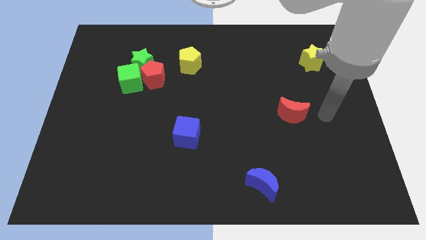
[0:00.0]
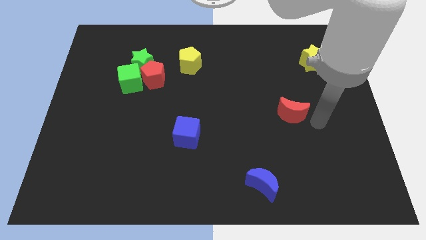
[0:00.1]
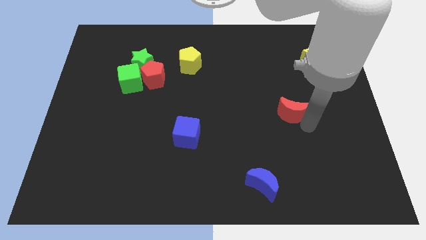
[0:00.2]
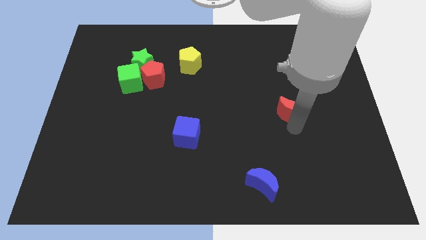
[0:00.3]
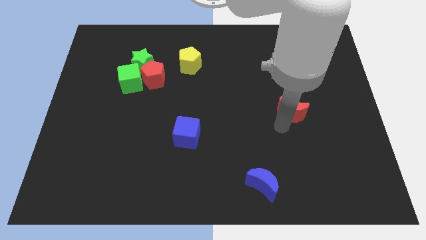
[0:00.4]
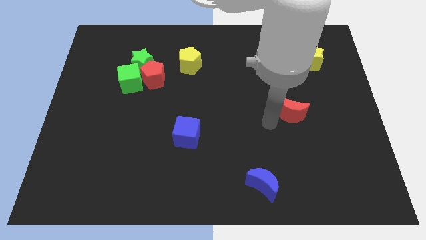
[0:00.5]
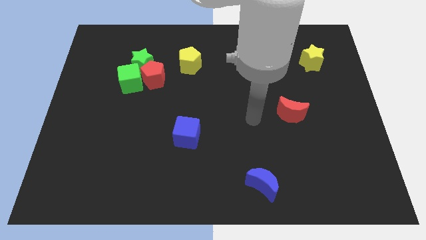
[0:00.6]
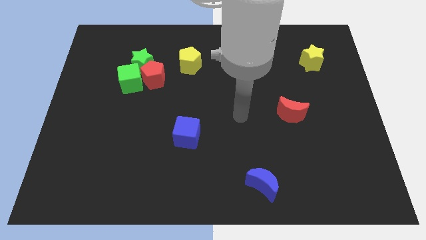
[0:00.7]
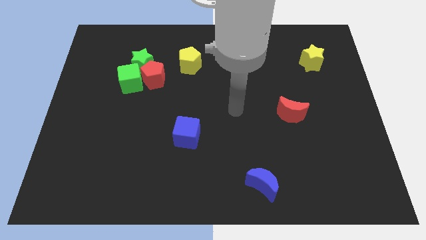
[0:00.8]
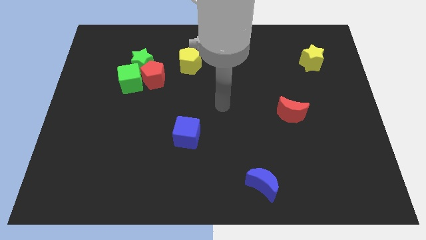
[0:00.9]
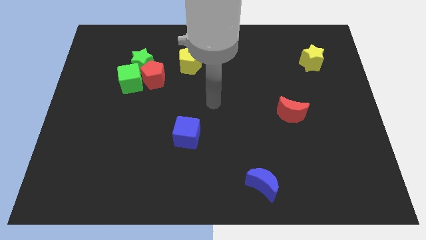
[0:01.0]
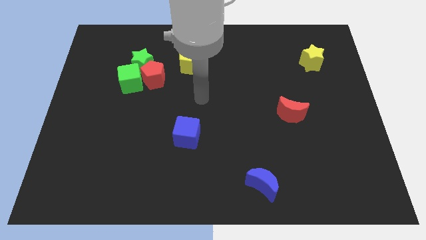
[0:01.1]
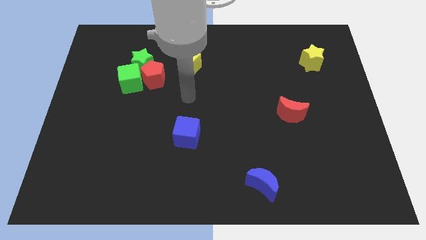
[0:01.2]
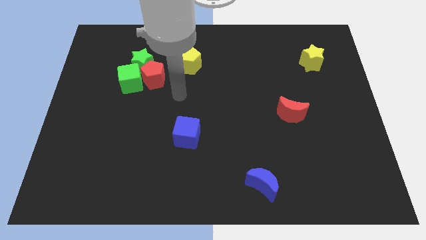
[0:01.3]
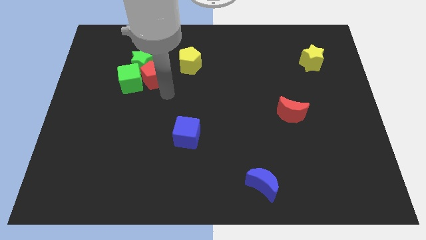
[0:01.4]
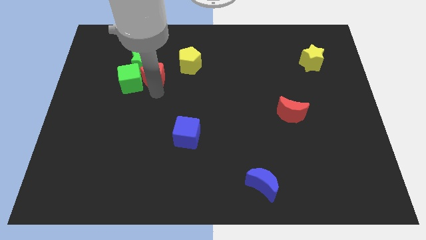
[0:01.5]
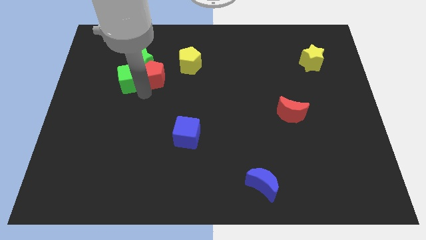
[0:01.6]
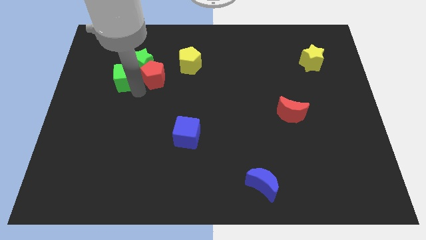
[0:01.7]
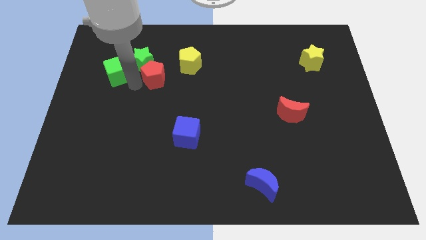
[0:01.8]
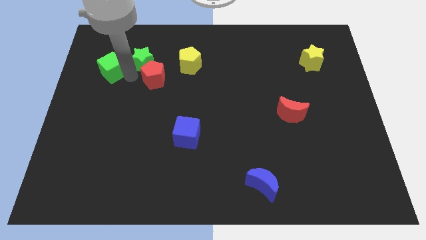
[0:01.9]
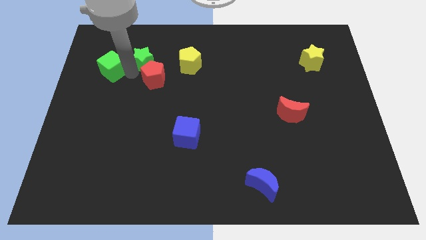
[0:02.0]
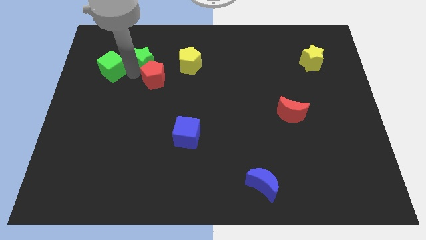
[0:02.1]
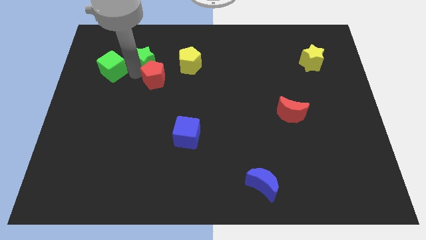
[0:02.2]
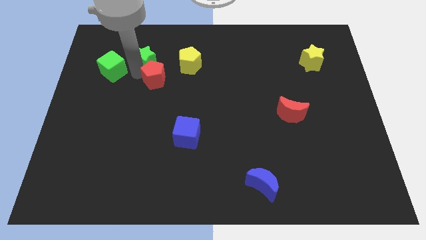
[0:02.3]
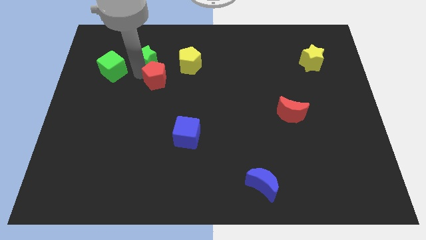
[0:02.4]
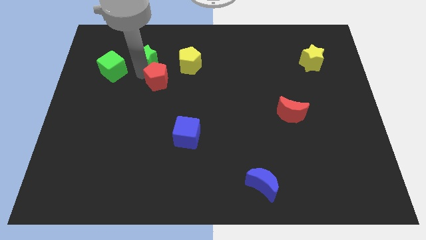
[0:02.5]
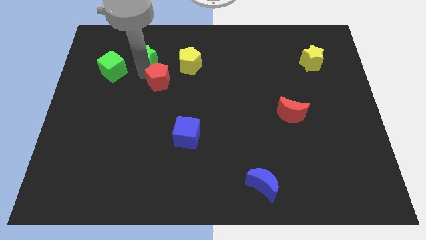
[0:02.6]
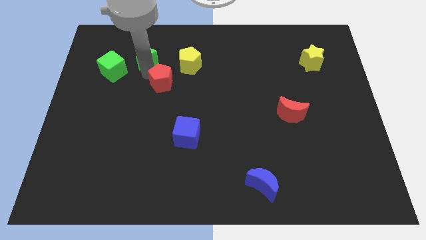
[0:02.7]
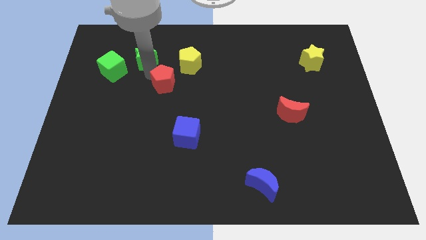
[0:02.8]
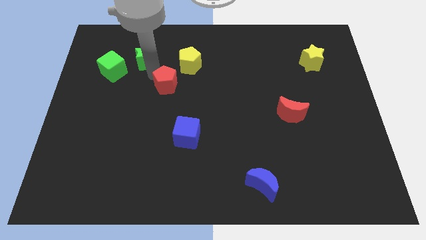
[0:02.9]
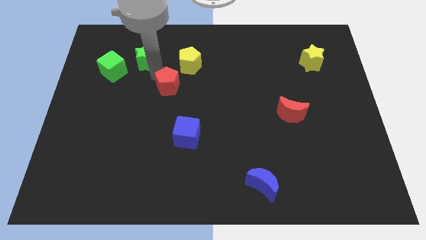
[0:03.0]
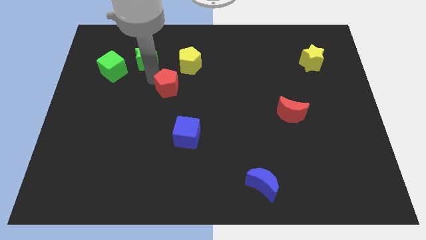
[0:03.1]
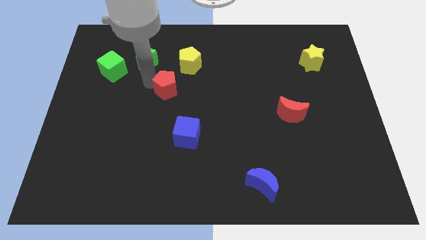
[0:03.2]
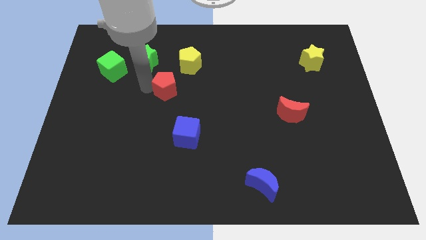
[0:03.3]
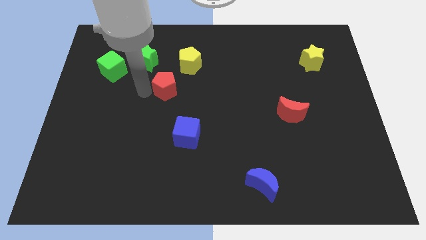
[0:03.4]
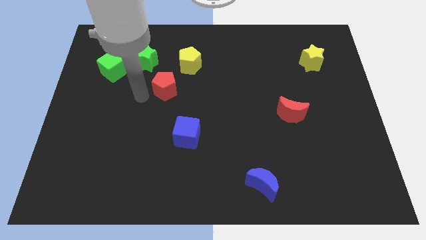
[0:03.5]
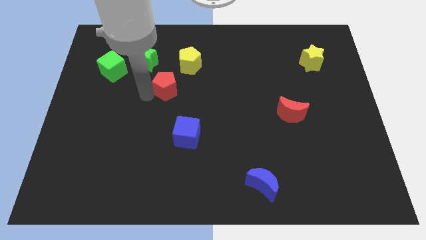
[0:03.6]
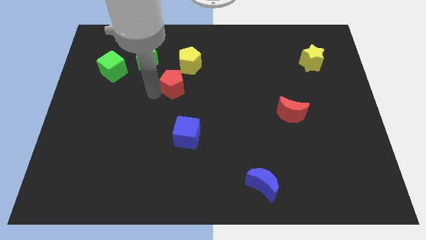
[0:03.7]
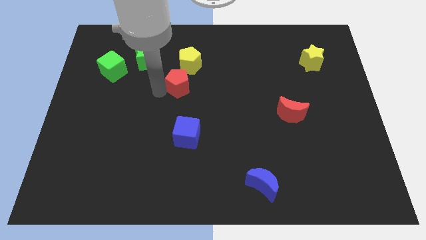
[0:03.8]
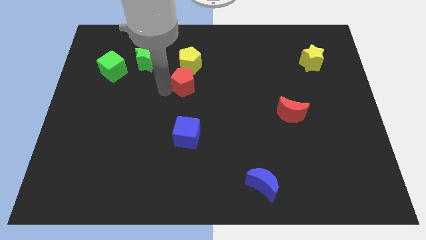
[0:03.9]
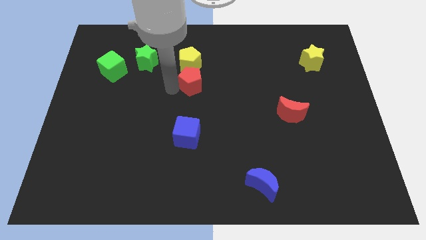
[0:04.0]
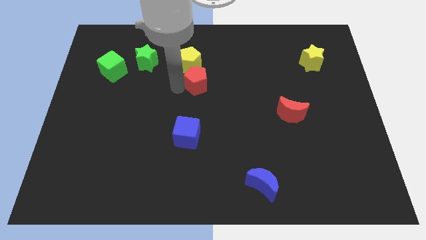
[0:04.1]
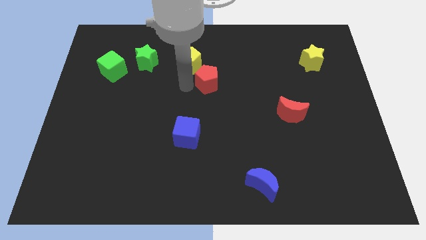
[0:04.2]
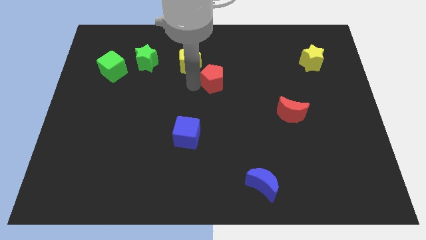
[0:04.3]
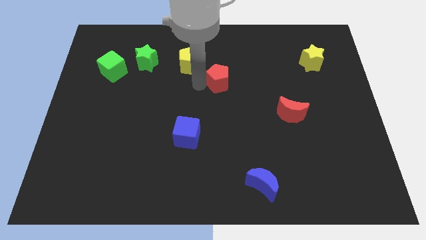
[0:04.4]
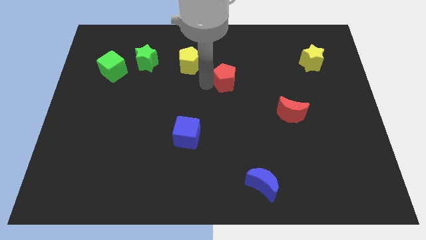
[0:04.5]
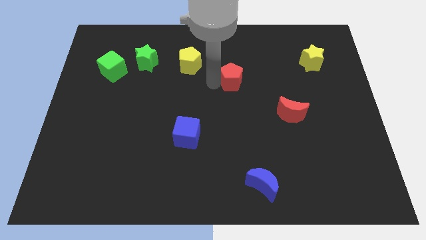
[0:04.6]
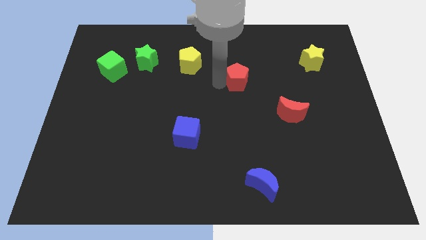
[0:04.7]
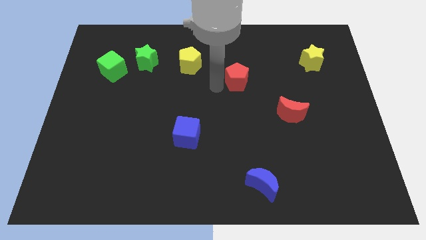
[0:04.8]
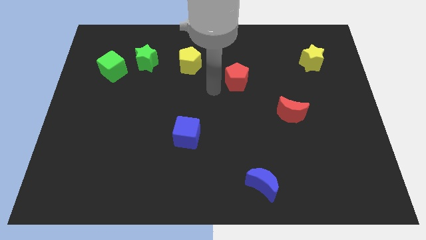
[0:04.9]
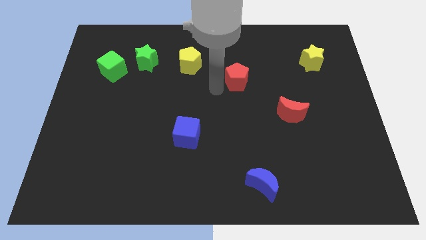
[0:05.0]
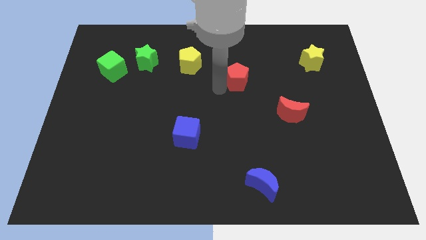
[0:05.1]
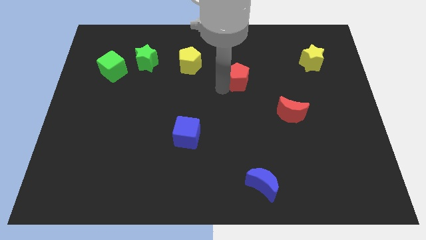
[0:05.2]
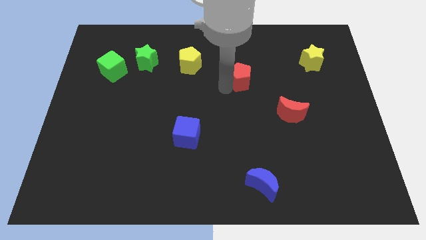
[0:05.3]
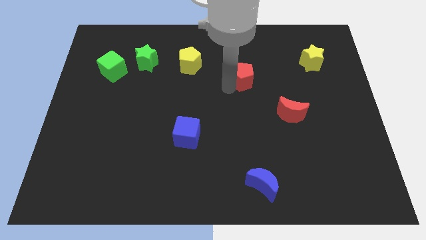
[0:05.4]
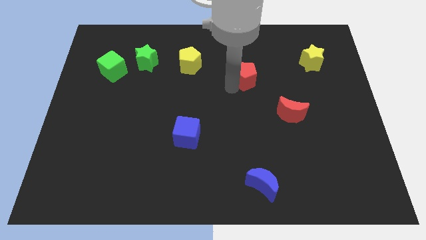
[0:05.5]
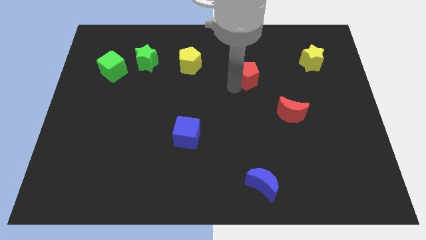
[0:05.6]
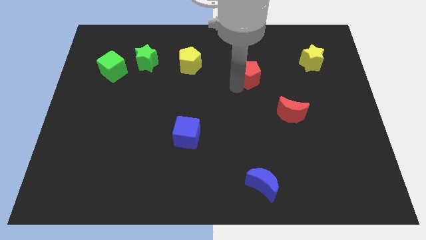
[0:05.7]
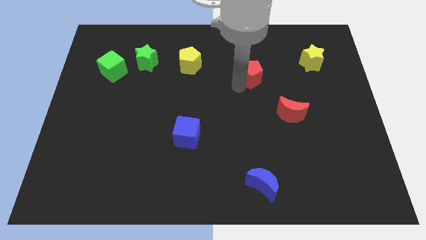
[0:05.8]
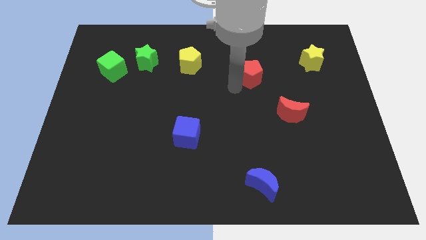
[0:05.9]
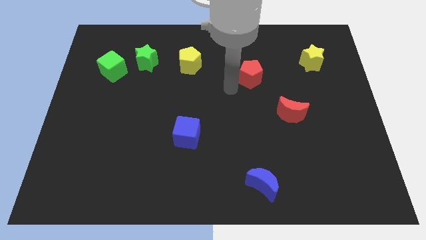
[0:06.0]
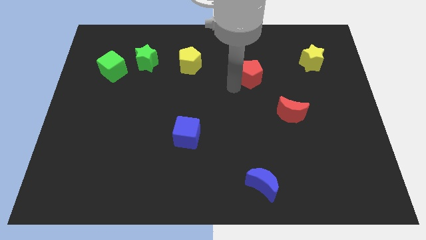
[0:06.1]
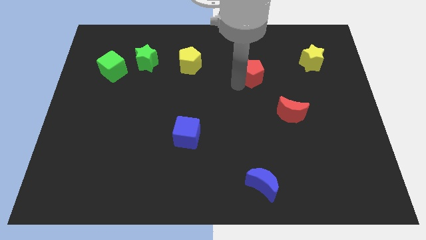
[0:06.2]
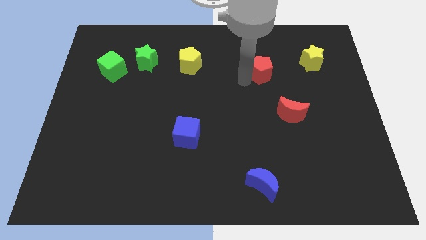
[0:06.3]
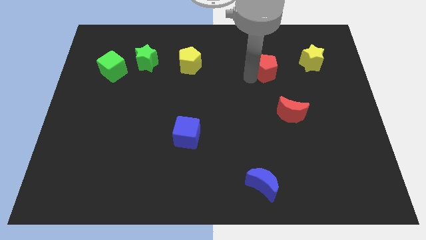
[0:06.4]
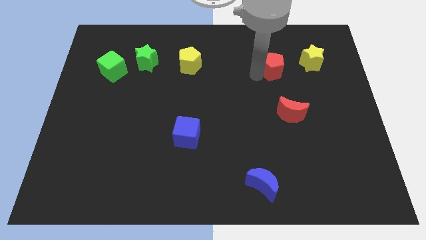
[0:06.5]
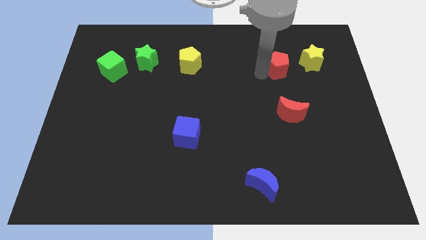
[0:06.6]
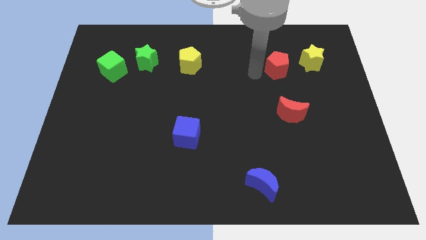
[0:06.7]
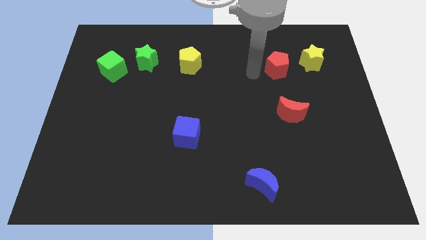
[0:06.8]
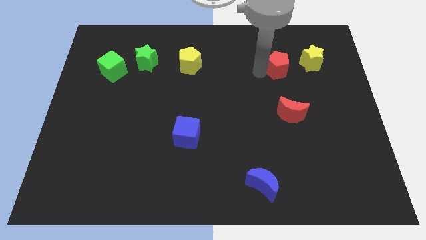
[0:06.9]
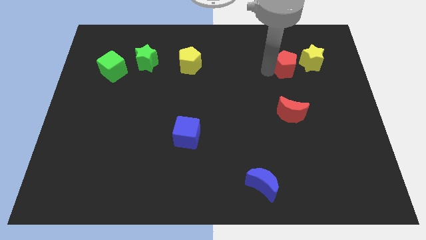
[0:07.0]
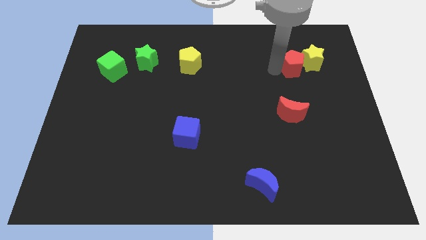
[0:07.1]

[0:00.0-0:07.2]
push the red pentagon next to the yellow star

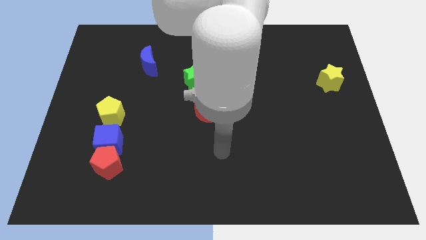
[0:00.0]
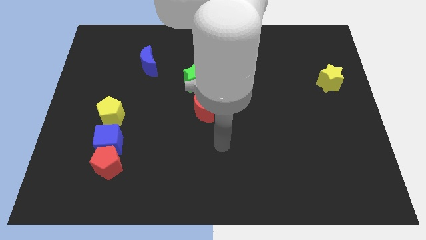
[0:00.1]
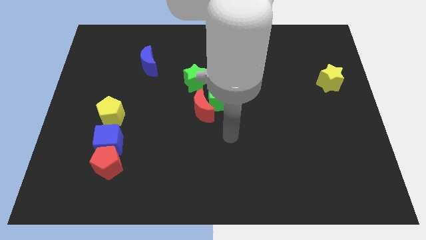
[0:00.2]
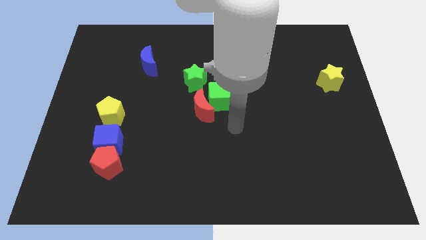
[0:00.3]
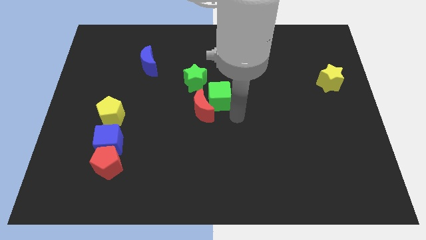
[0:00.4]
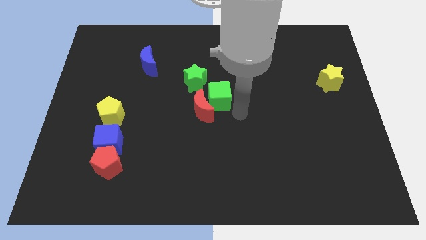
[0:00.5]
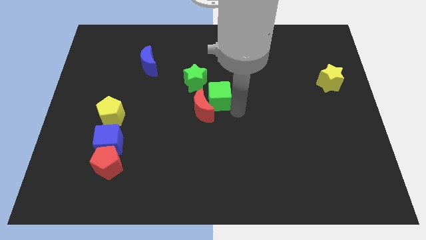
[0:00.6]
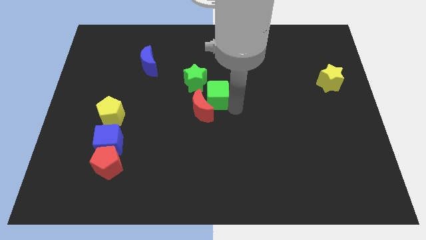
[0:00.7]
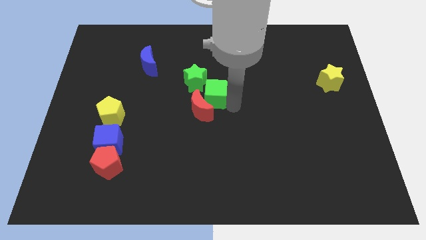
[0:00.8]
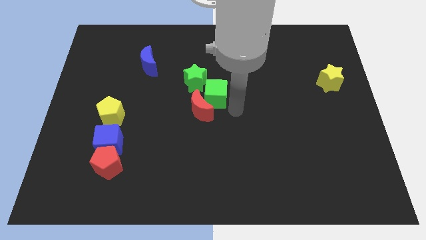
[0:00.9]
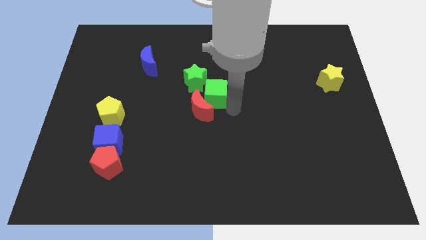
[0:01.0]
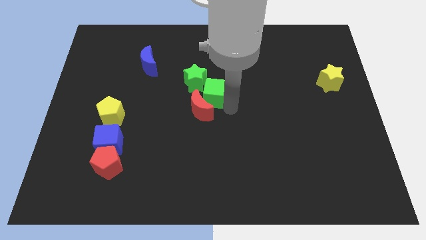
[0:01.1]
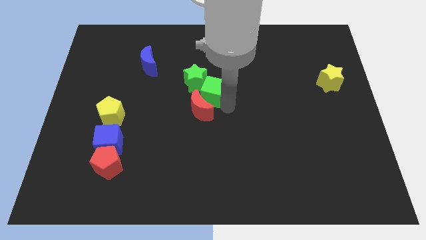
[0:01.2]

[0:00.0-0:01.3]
put the green cube towards the green star
